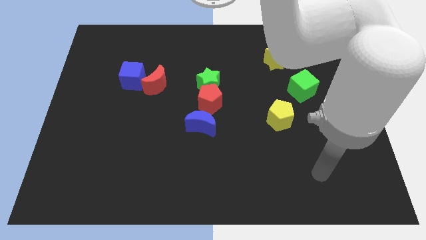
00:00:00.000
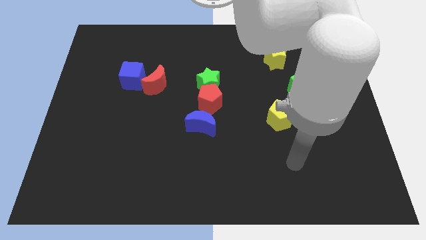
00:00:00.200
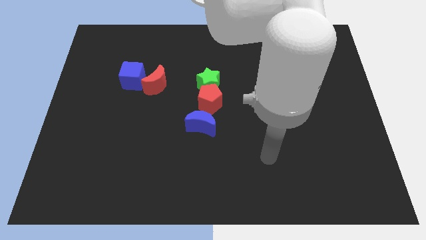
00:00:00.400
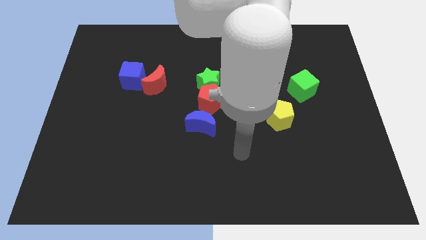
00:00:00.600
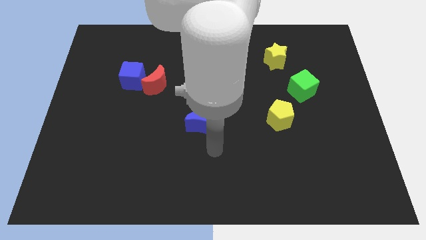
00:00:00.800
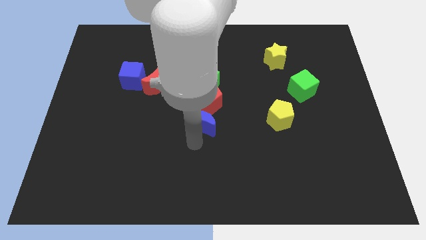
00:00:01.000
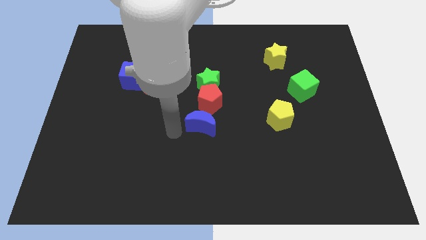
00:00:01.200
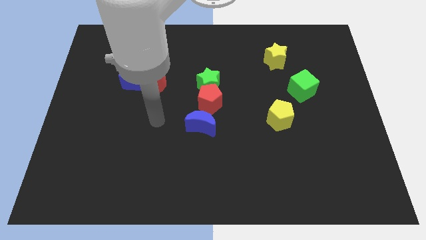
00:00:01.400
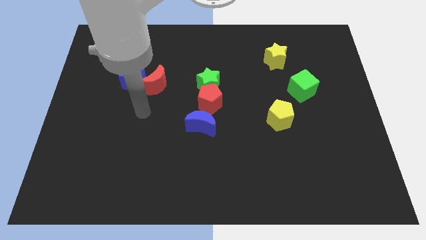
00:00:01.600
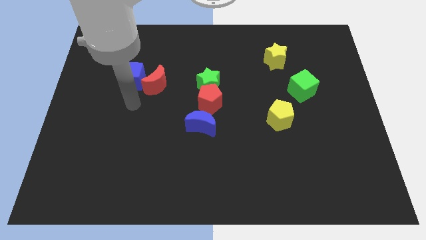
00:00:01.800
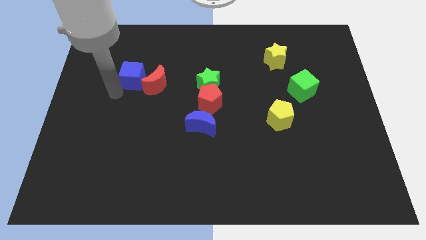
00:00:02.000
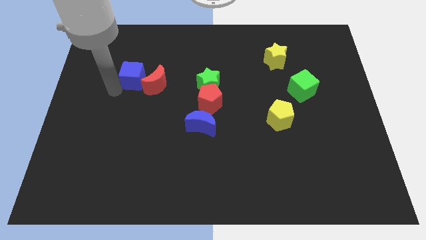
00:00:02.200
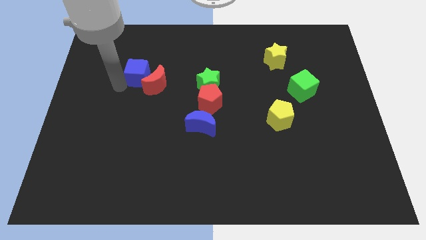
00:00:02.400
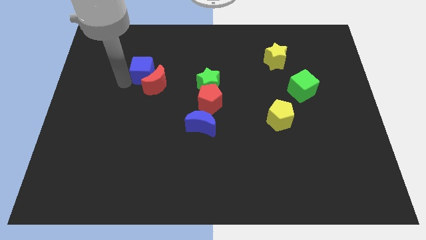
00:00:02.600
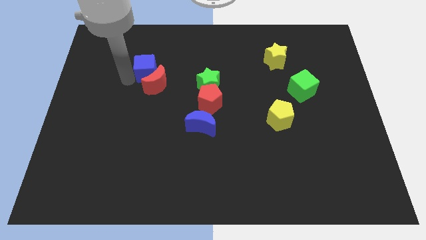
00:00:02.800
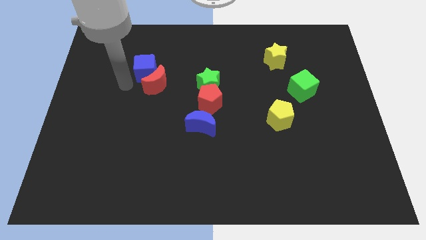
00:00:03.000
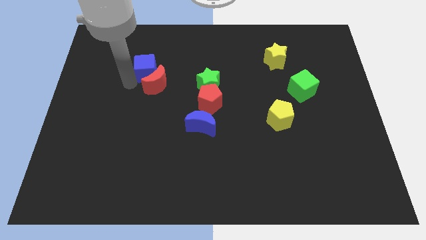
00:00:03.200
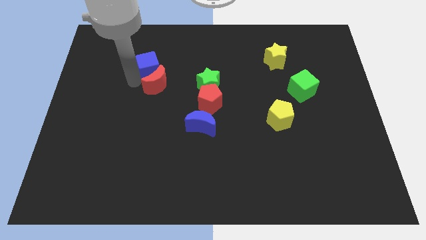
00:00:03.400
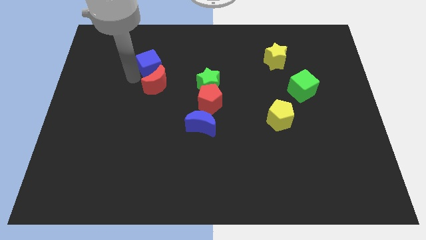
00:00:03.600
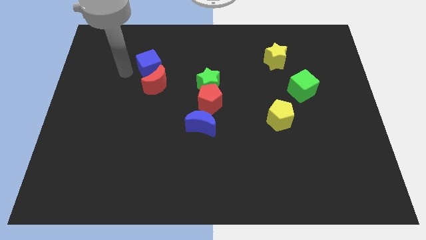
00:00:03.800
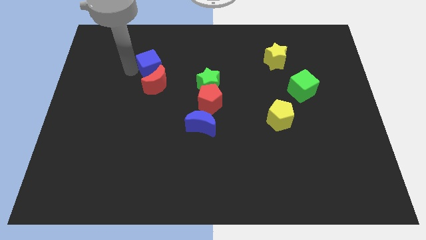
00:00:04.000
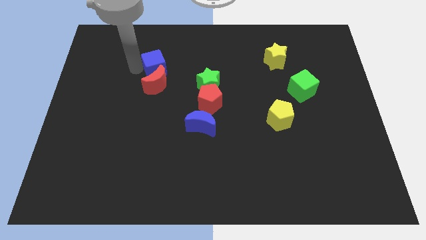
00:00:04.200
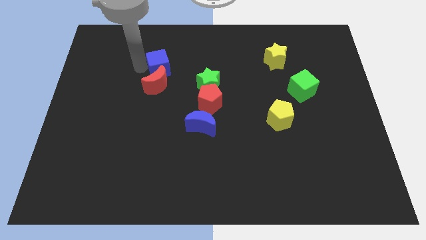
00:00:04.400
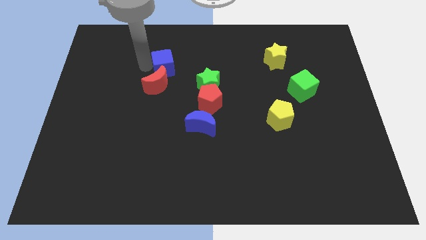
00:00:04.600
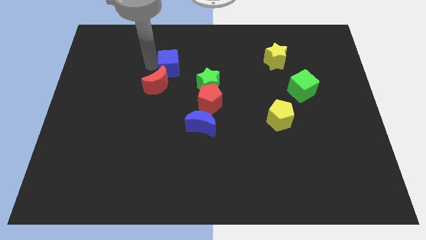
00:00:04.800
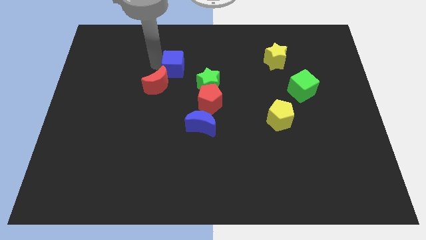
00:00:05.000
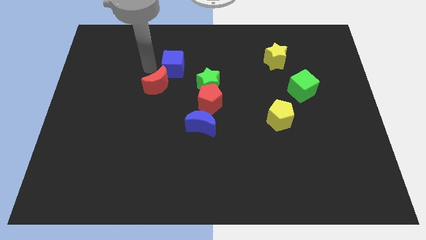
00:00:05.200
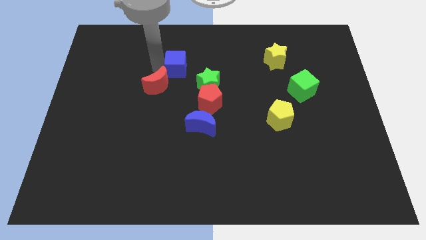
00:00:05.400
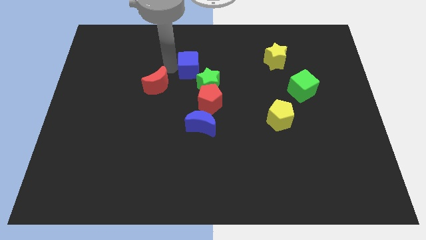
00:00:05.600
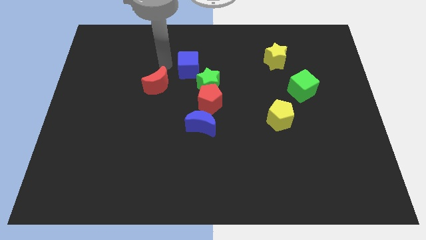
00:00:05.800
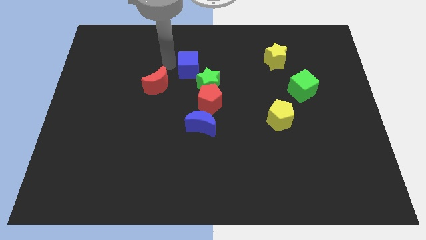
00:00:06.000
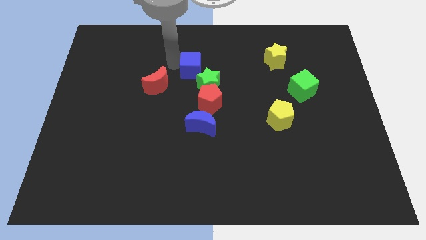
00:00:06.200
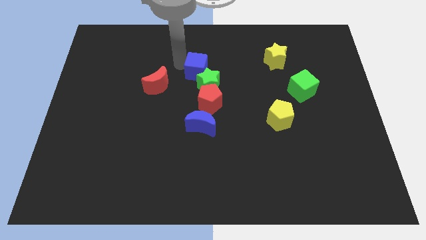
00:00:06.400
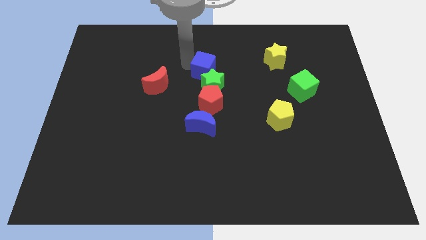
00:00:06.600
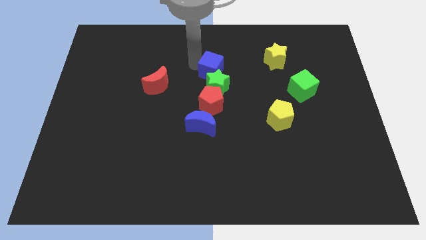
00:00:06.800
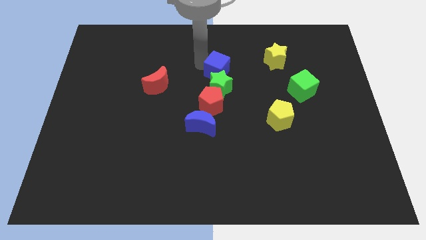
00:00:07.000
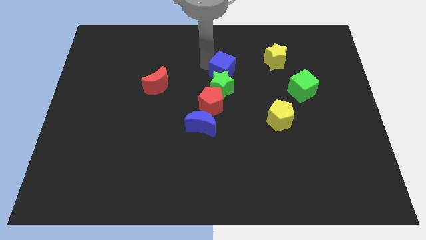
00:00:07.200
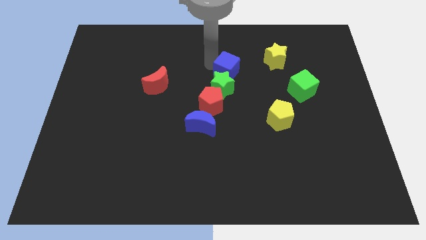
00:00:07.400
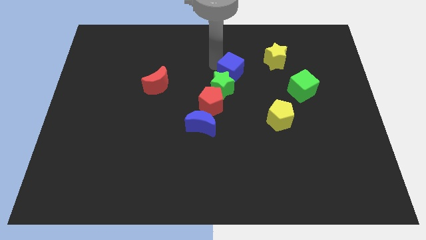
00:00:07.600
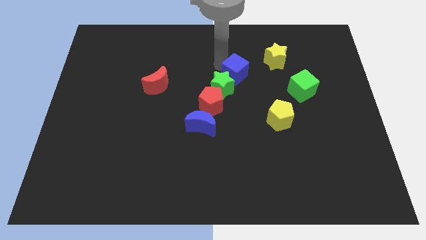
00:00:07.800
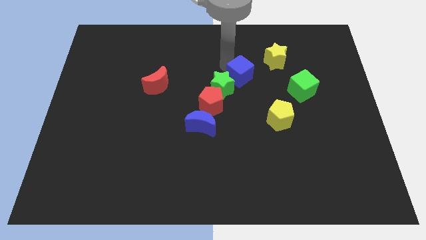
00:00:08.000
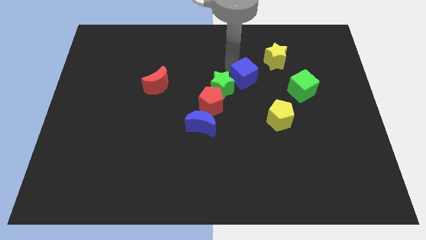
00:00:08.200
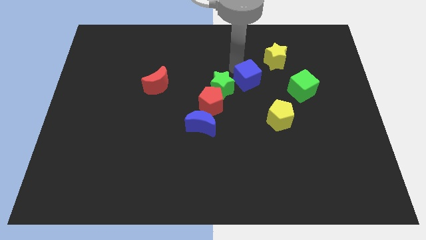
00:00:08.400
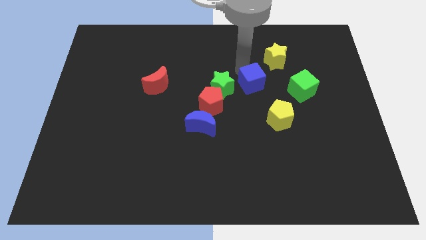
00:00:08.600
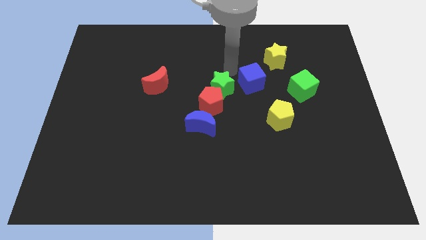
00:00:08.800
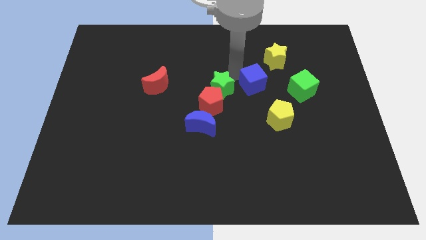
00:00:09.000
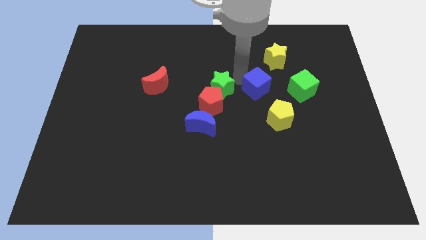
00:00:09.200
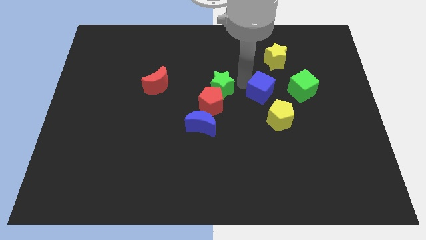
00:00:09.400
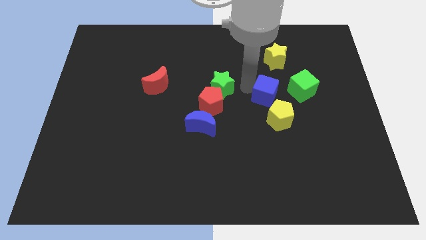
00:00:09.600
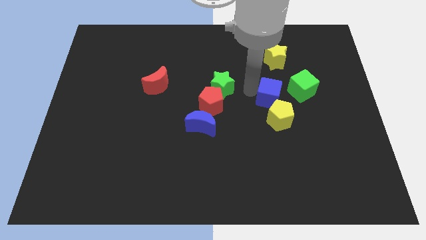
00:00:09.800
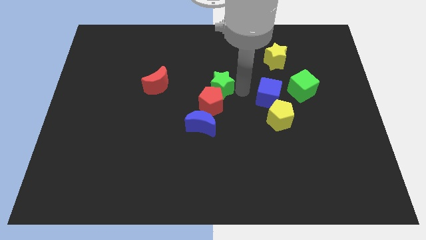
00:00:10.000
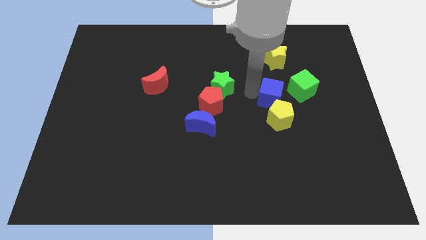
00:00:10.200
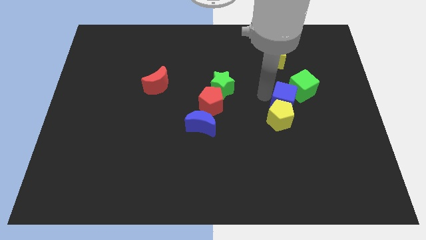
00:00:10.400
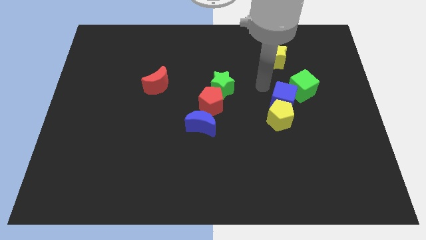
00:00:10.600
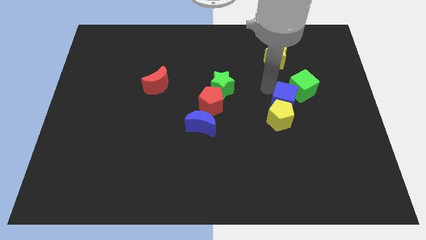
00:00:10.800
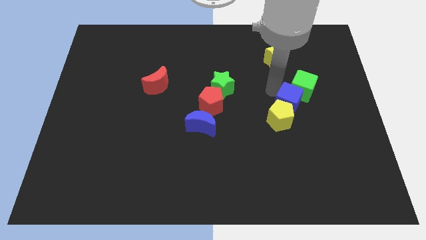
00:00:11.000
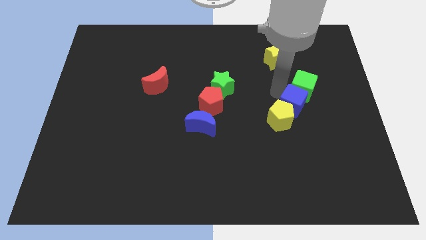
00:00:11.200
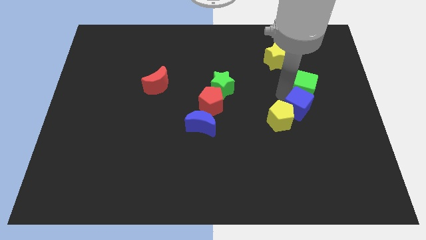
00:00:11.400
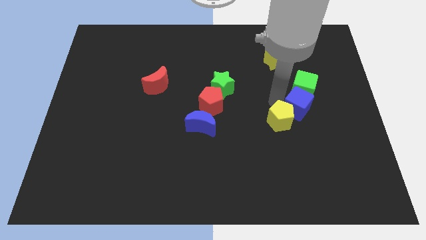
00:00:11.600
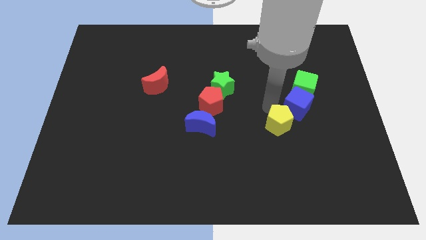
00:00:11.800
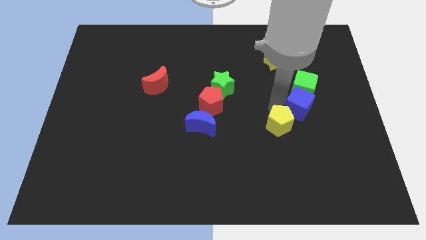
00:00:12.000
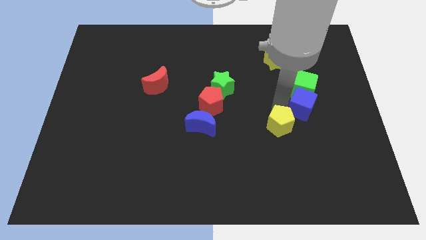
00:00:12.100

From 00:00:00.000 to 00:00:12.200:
put the blue cube to the bottom right side of the green cube

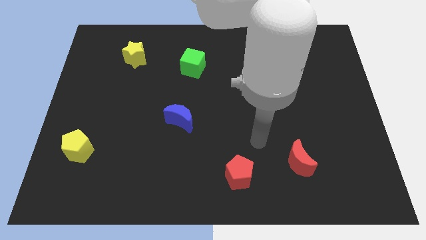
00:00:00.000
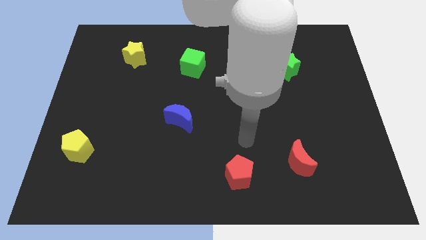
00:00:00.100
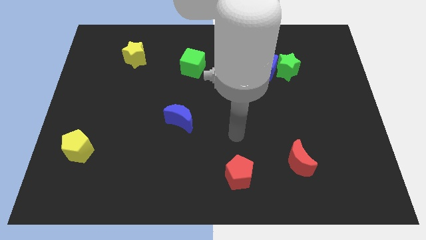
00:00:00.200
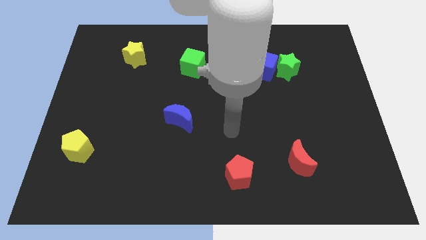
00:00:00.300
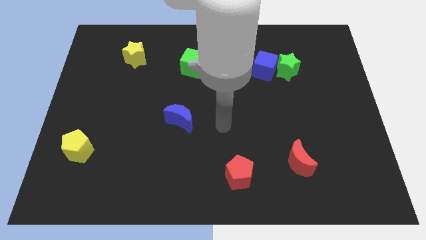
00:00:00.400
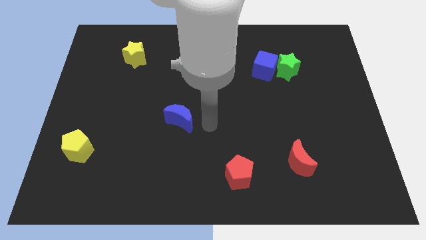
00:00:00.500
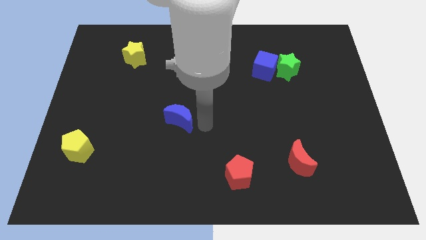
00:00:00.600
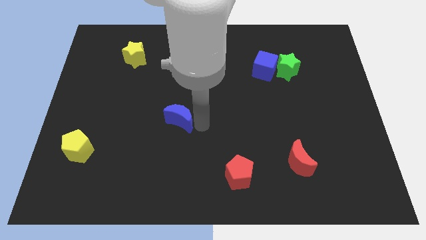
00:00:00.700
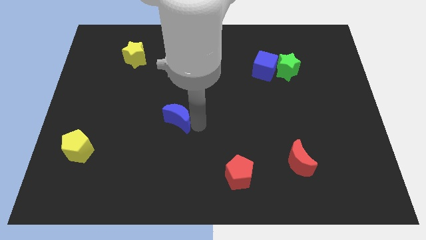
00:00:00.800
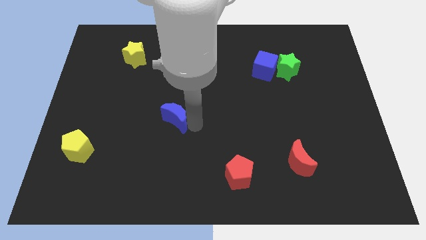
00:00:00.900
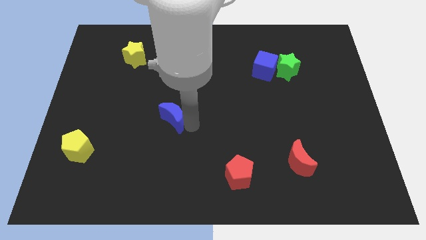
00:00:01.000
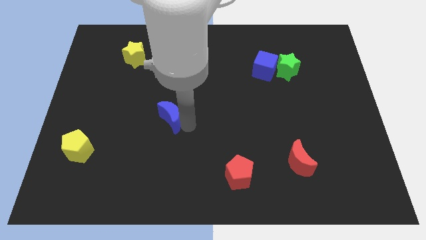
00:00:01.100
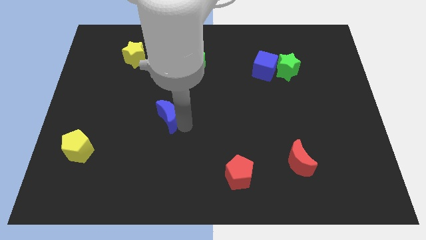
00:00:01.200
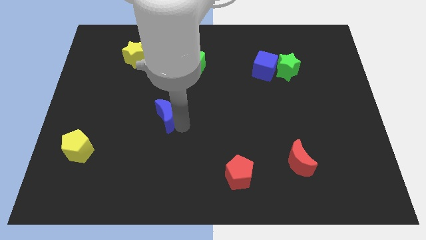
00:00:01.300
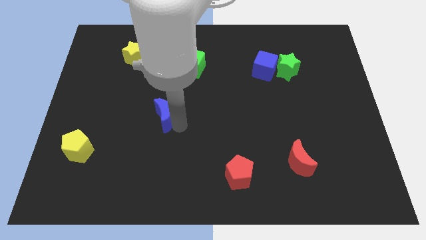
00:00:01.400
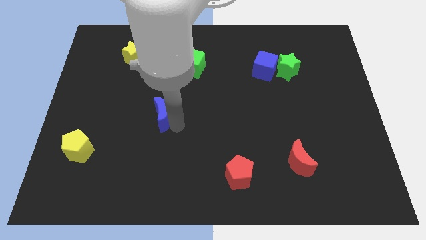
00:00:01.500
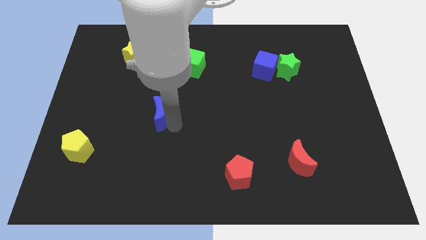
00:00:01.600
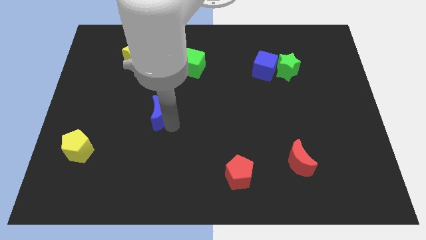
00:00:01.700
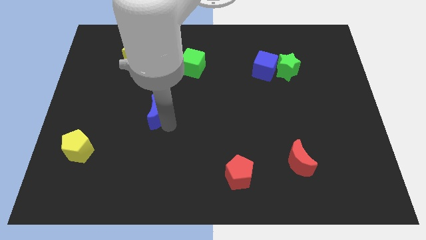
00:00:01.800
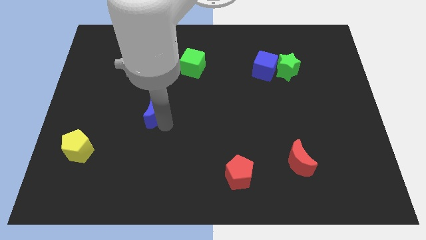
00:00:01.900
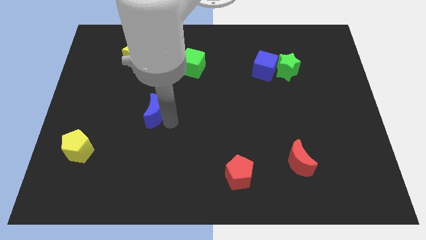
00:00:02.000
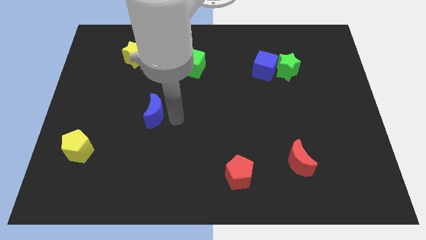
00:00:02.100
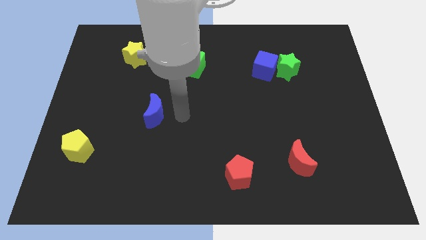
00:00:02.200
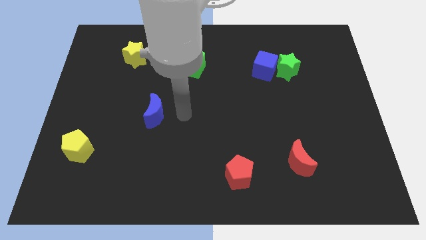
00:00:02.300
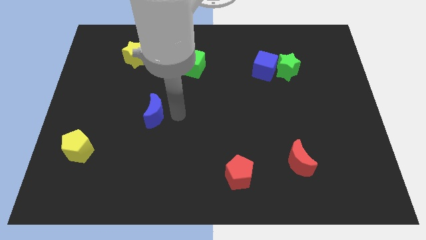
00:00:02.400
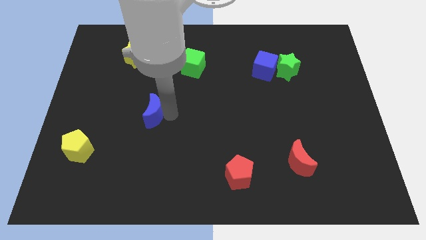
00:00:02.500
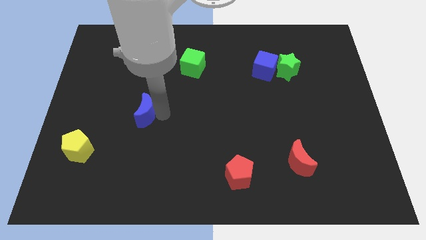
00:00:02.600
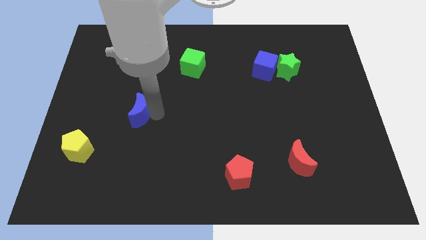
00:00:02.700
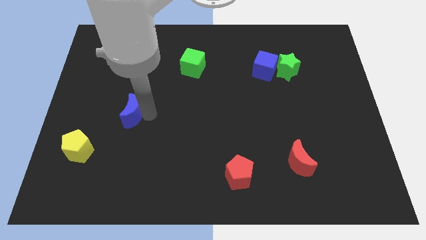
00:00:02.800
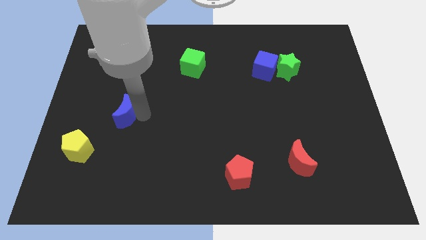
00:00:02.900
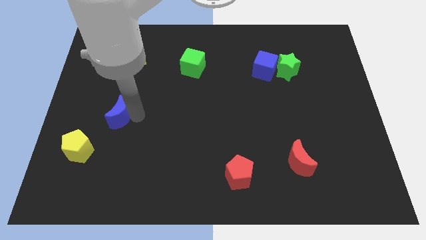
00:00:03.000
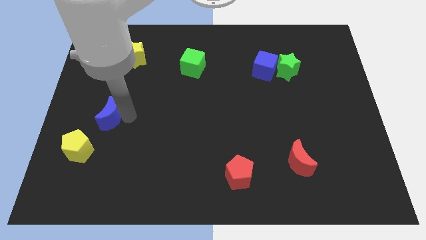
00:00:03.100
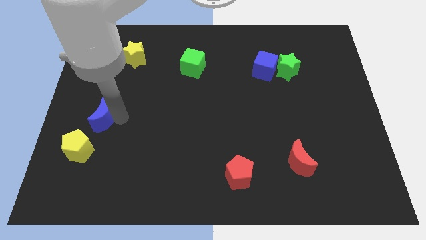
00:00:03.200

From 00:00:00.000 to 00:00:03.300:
slide the blue moon to the top side of the yellow pentagon
